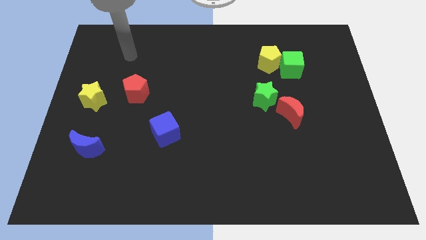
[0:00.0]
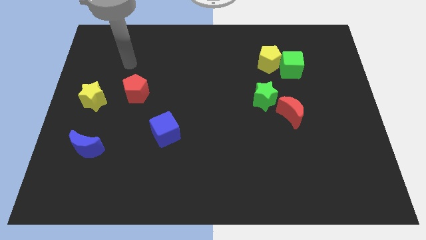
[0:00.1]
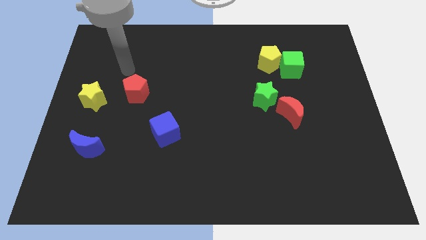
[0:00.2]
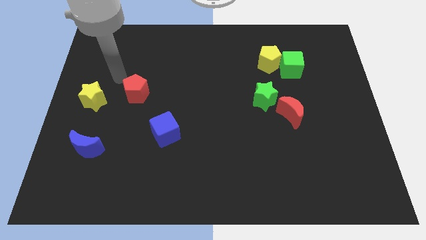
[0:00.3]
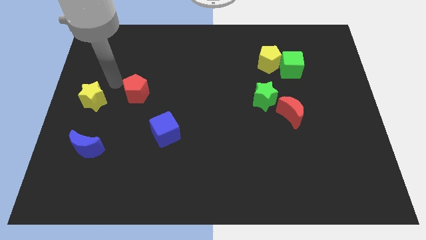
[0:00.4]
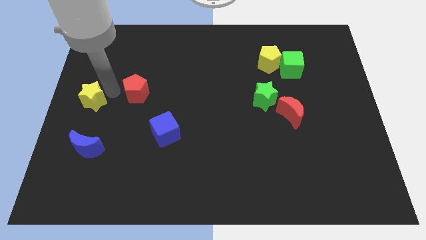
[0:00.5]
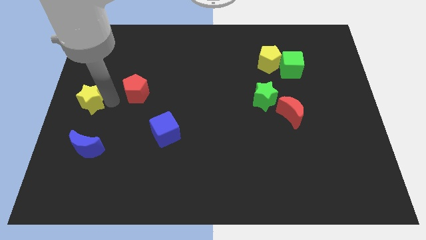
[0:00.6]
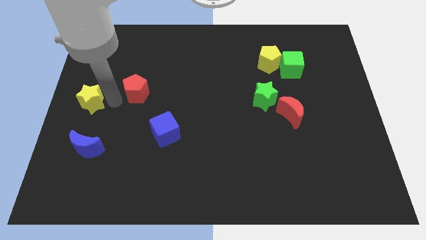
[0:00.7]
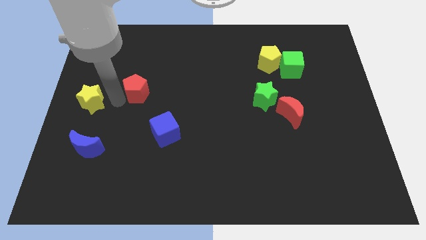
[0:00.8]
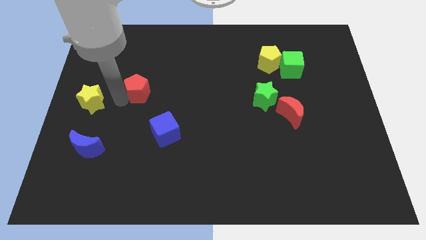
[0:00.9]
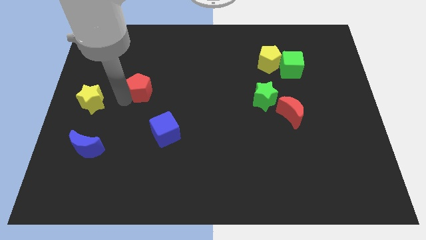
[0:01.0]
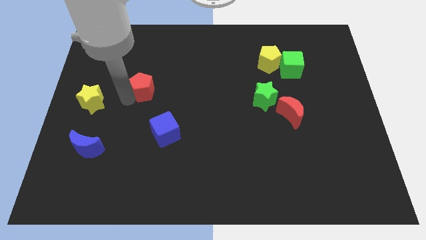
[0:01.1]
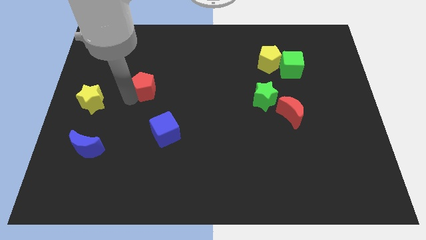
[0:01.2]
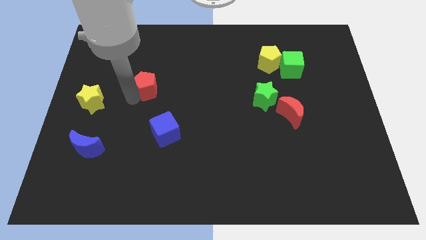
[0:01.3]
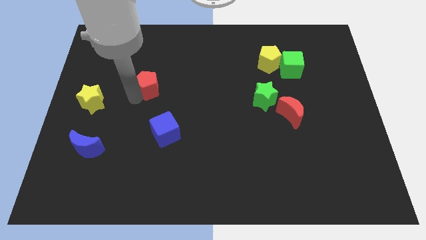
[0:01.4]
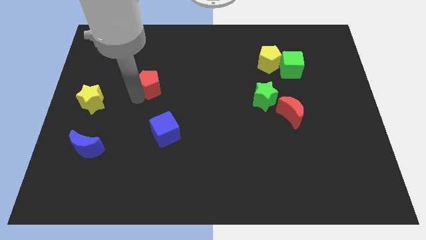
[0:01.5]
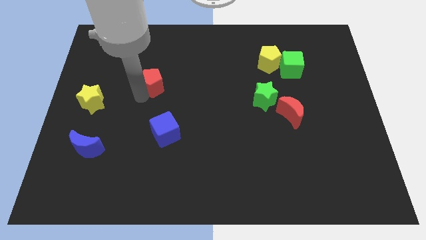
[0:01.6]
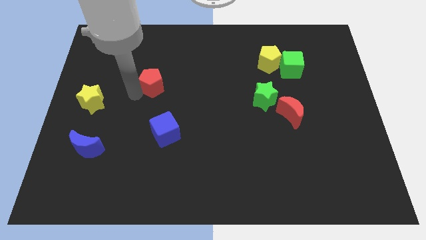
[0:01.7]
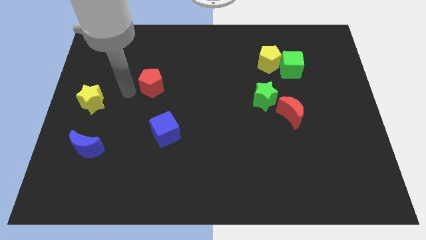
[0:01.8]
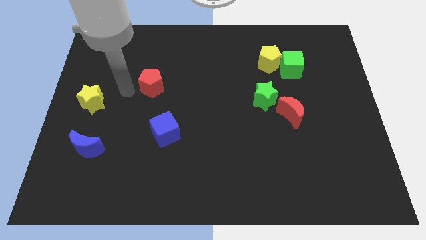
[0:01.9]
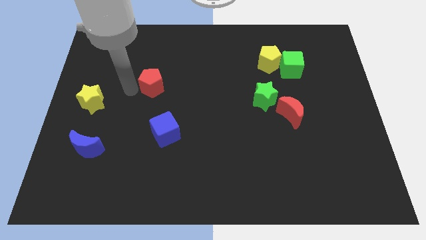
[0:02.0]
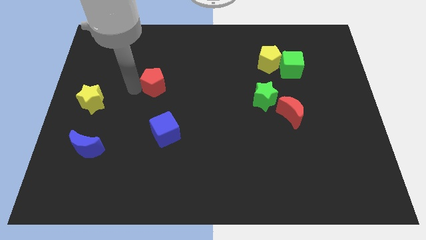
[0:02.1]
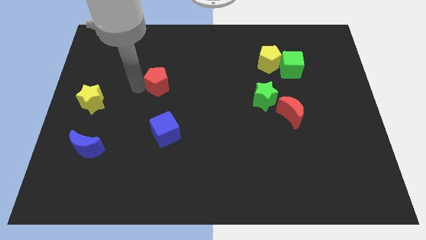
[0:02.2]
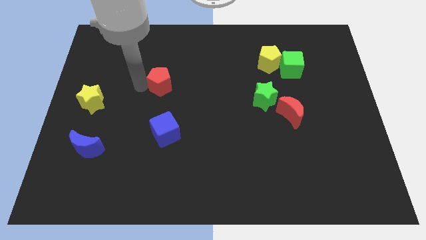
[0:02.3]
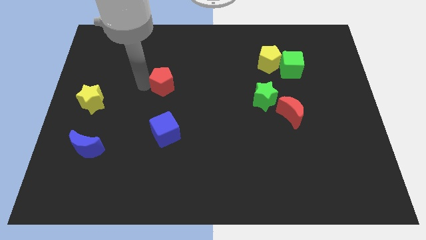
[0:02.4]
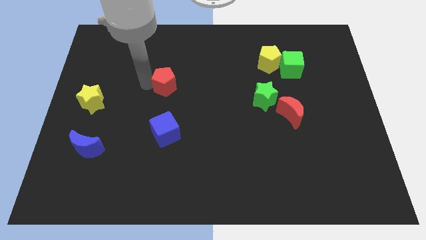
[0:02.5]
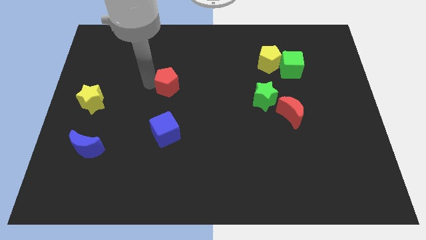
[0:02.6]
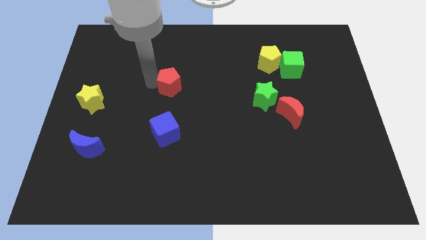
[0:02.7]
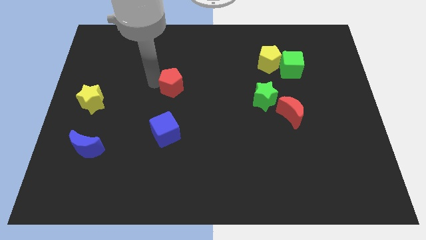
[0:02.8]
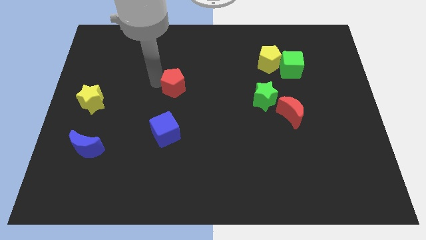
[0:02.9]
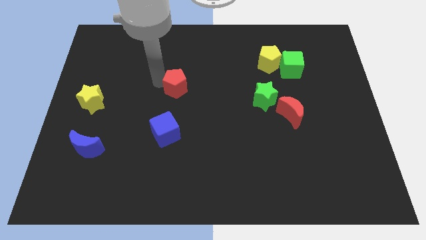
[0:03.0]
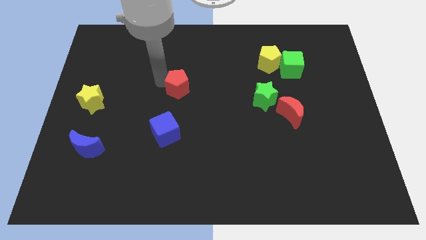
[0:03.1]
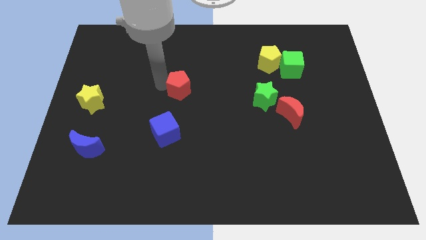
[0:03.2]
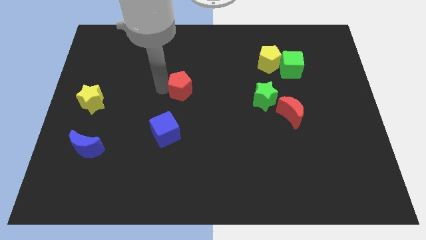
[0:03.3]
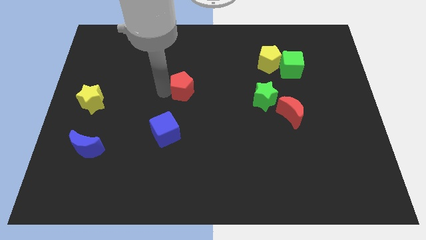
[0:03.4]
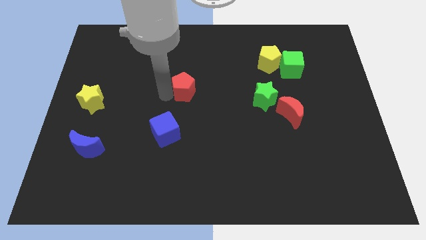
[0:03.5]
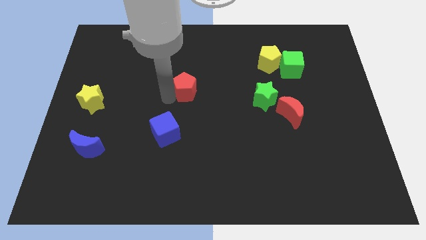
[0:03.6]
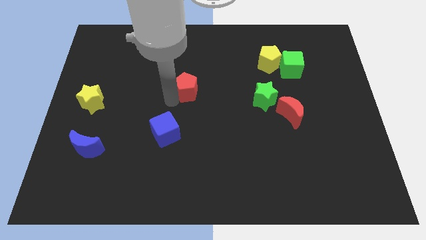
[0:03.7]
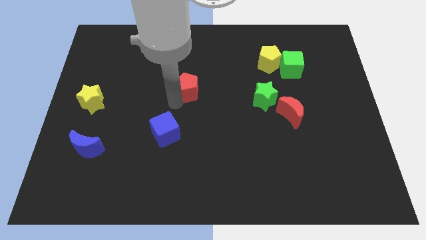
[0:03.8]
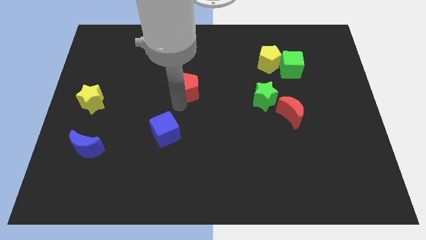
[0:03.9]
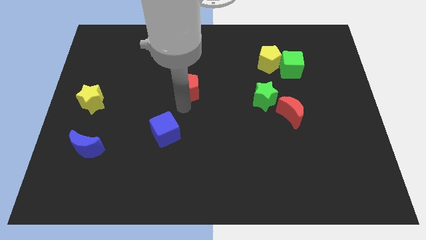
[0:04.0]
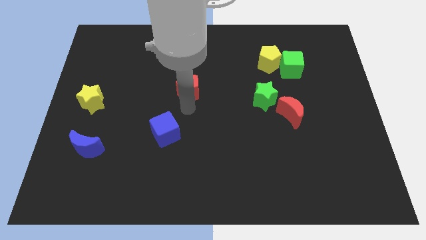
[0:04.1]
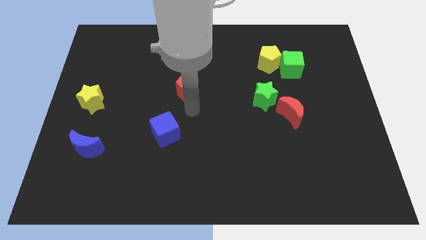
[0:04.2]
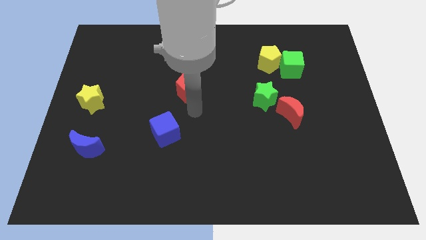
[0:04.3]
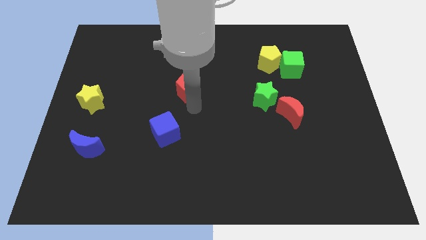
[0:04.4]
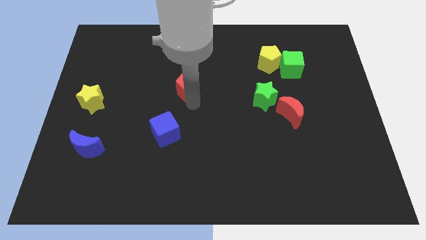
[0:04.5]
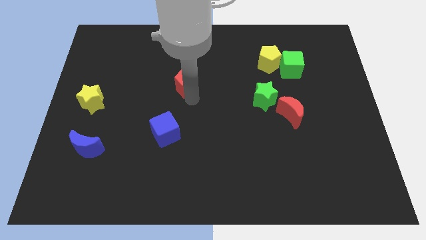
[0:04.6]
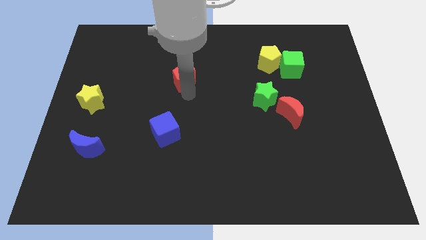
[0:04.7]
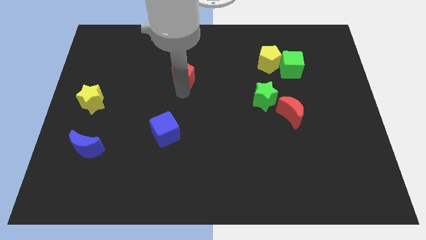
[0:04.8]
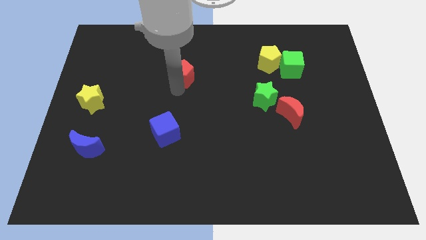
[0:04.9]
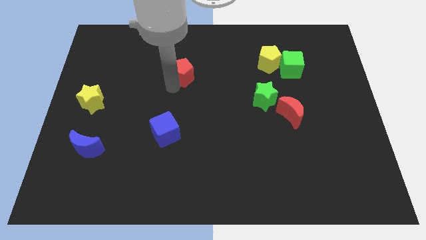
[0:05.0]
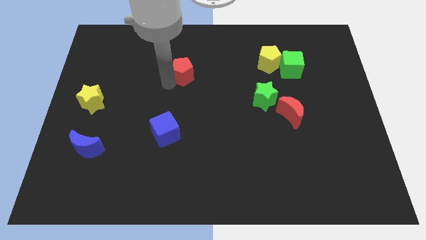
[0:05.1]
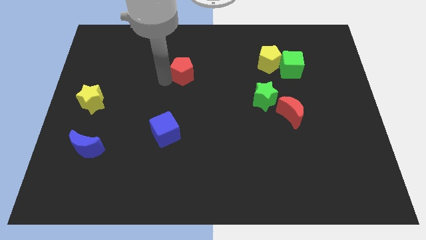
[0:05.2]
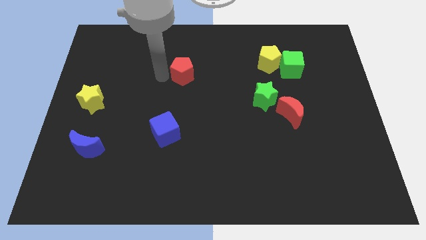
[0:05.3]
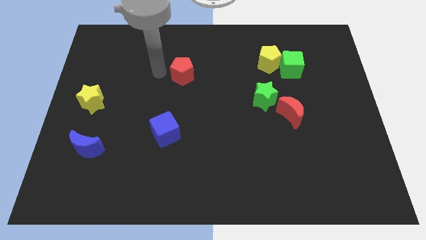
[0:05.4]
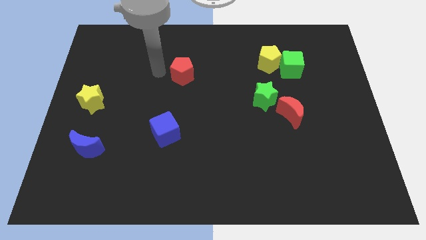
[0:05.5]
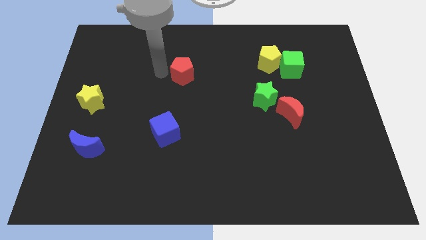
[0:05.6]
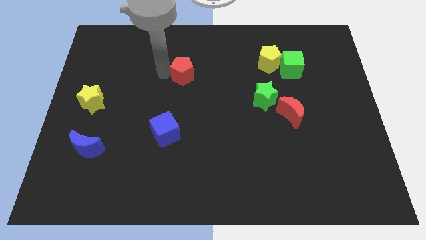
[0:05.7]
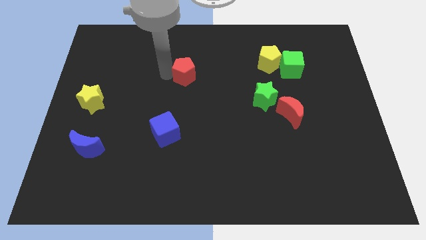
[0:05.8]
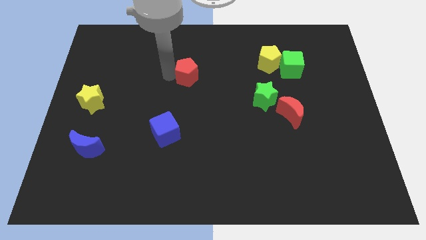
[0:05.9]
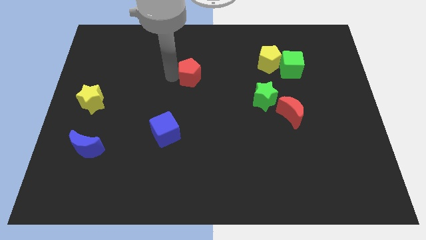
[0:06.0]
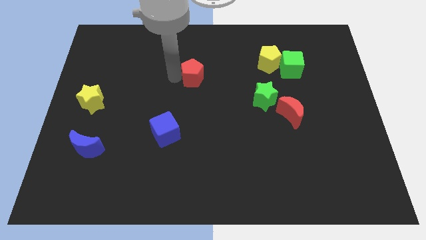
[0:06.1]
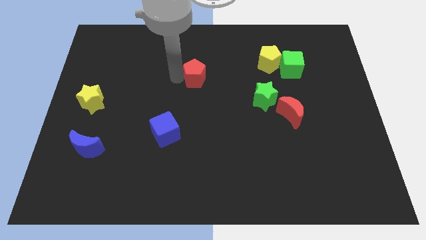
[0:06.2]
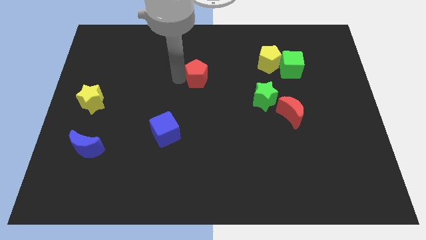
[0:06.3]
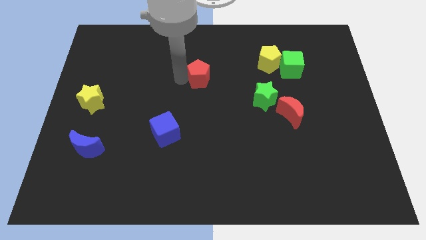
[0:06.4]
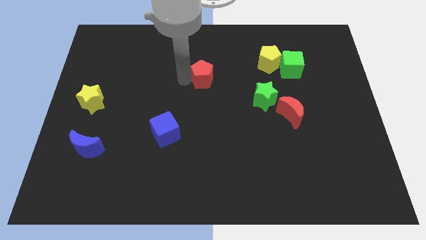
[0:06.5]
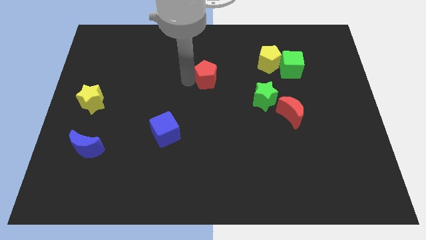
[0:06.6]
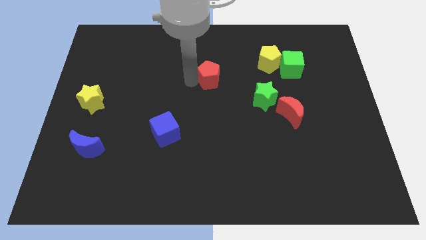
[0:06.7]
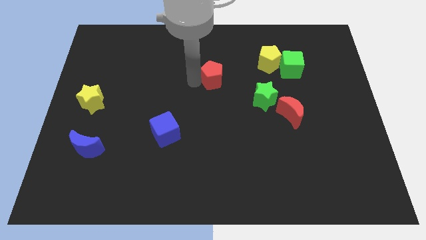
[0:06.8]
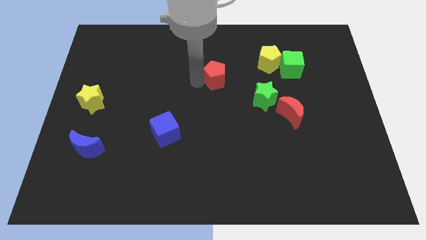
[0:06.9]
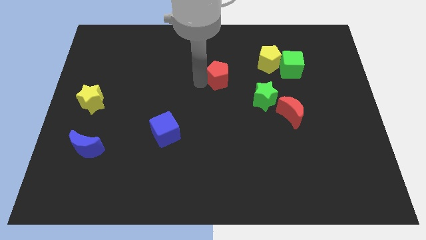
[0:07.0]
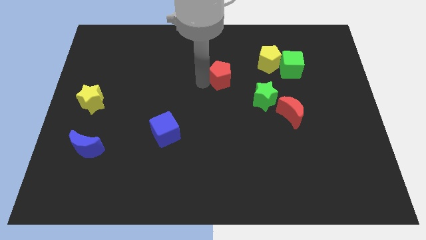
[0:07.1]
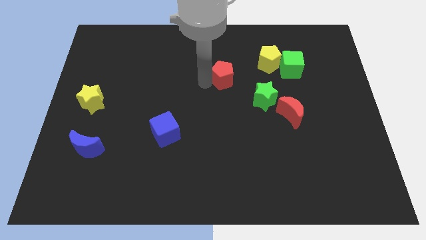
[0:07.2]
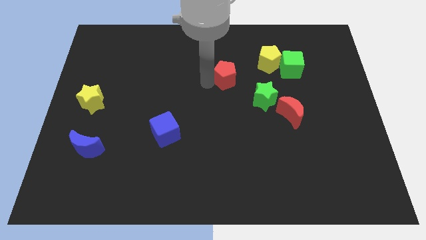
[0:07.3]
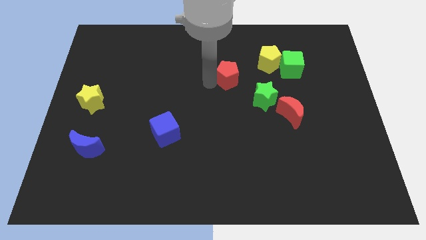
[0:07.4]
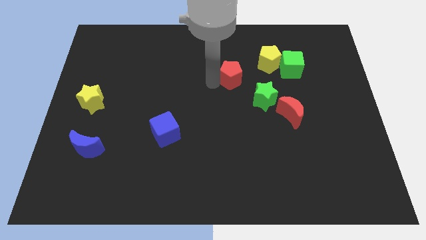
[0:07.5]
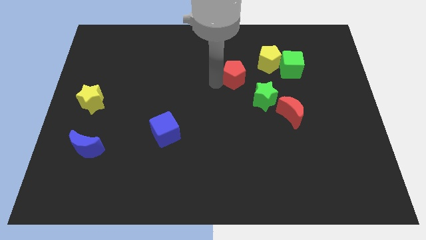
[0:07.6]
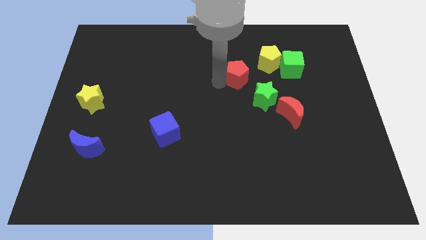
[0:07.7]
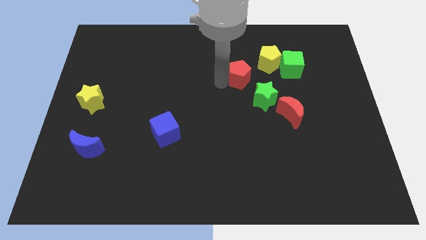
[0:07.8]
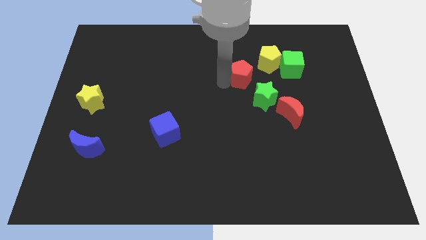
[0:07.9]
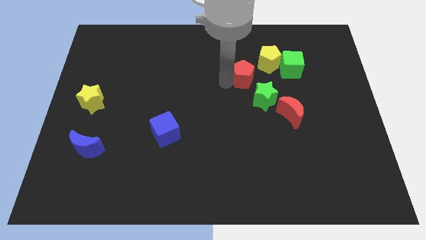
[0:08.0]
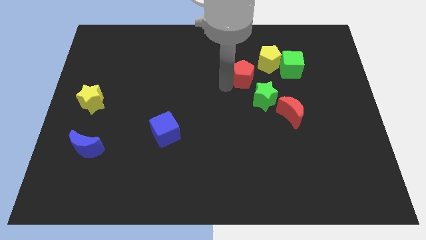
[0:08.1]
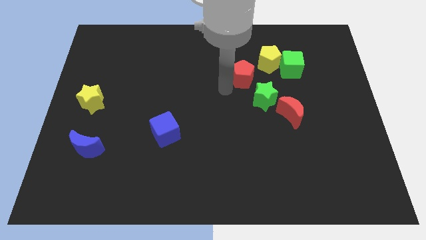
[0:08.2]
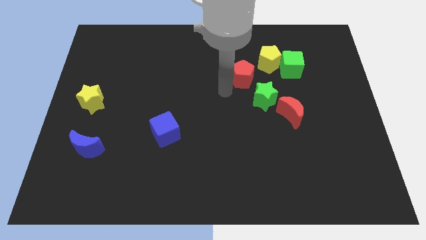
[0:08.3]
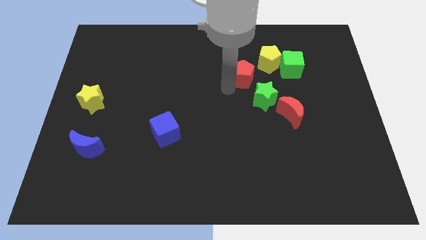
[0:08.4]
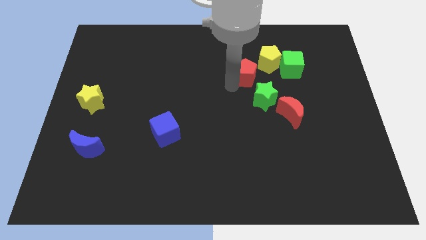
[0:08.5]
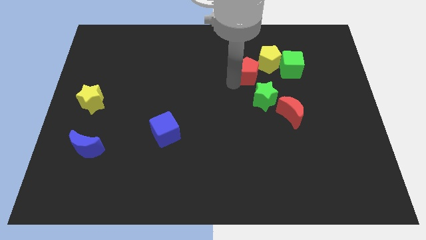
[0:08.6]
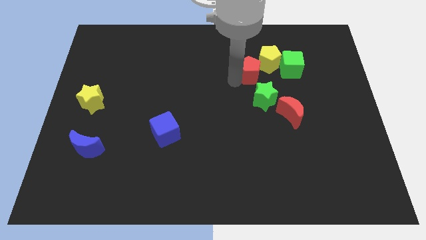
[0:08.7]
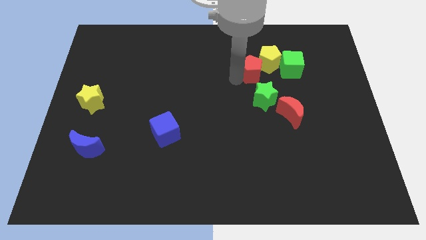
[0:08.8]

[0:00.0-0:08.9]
put the red pentagon to the yellow pentagon
